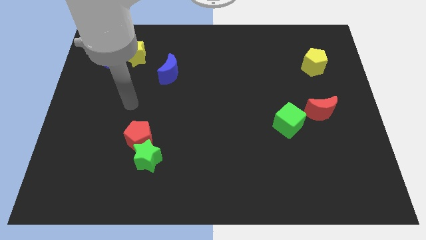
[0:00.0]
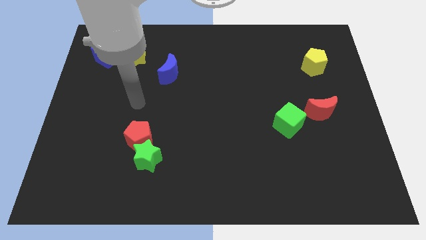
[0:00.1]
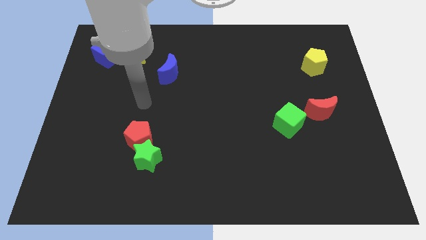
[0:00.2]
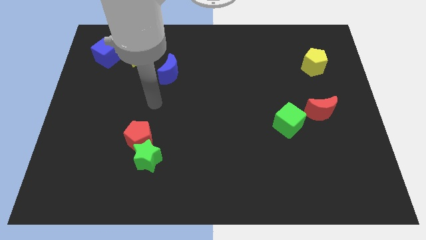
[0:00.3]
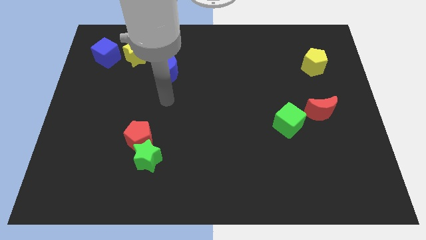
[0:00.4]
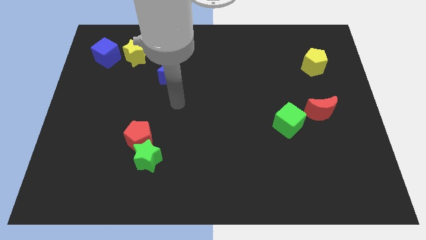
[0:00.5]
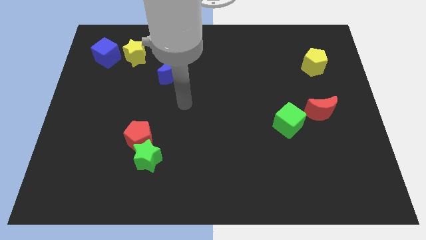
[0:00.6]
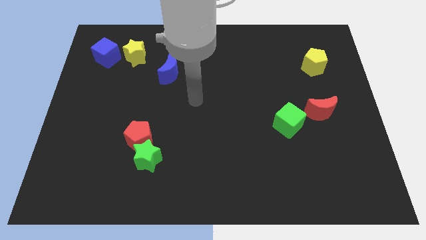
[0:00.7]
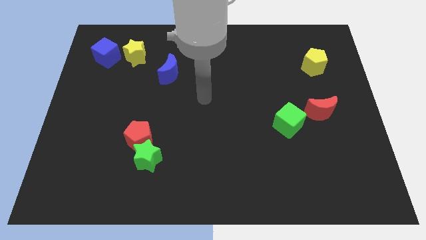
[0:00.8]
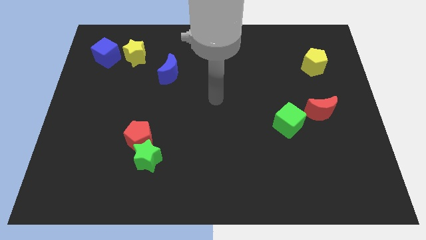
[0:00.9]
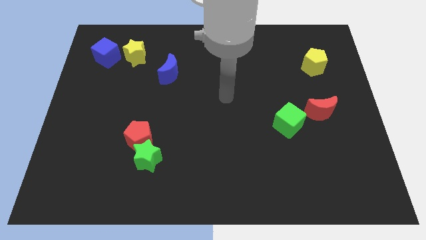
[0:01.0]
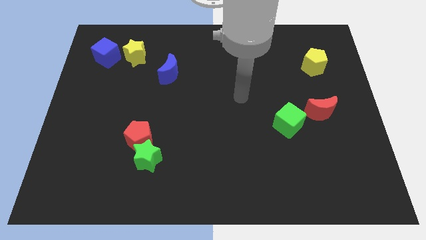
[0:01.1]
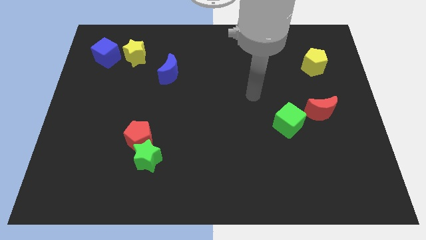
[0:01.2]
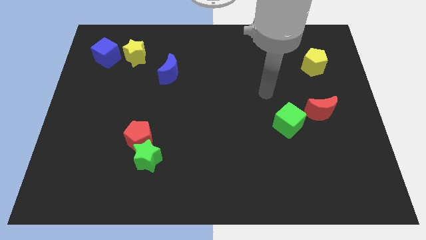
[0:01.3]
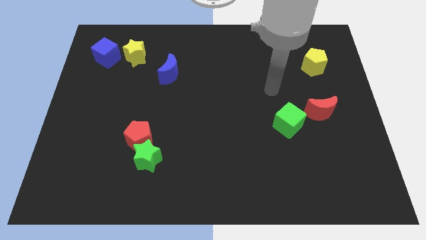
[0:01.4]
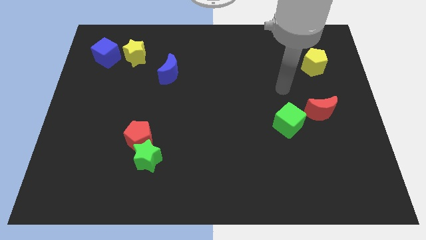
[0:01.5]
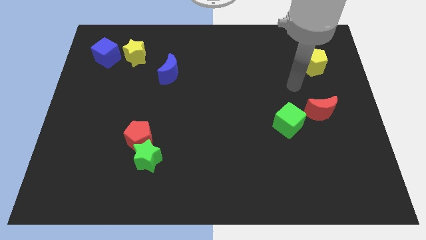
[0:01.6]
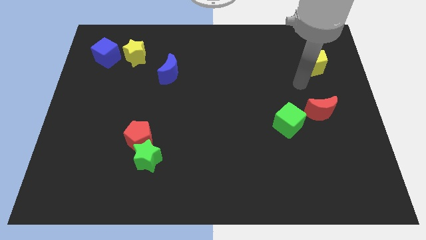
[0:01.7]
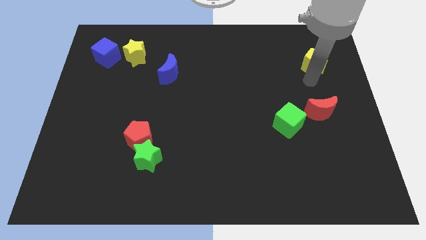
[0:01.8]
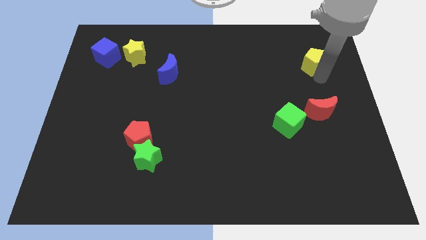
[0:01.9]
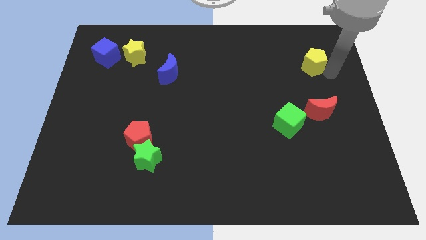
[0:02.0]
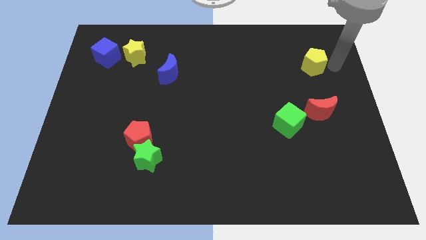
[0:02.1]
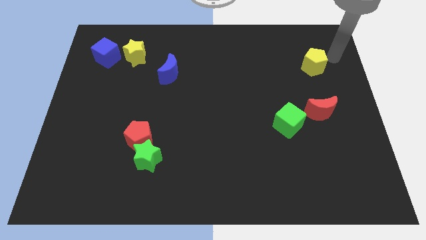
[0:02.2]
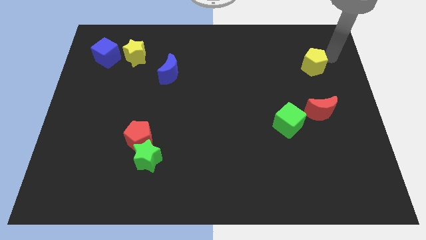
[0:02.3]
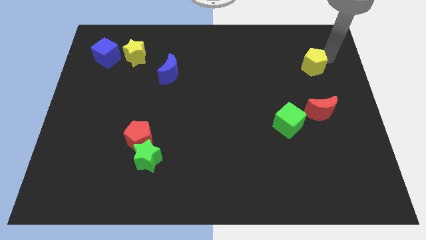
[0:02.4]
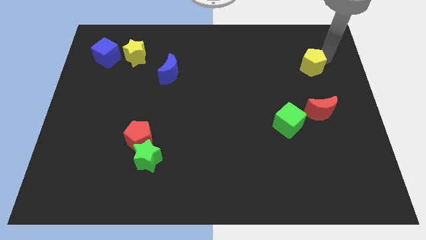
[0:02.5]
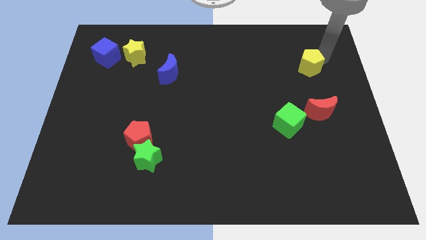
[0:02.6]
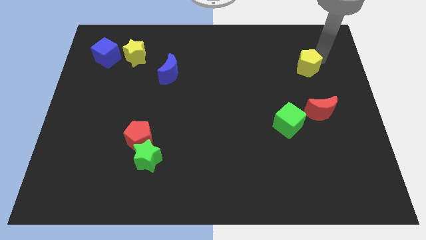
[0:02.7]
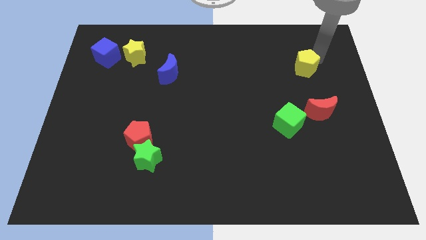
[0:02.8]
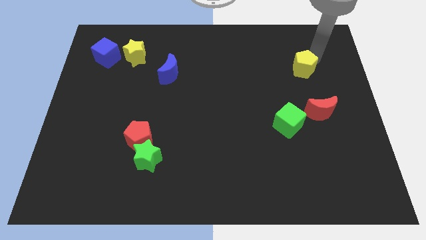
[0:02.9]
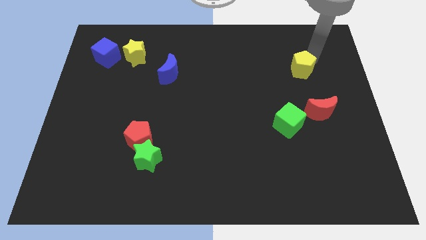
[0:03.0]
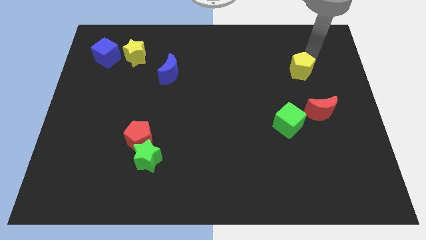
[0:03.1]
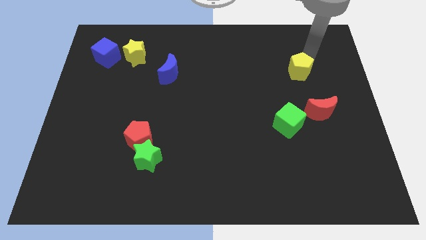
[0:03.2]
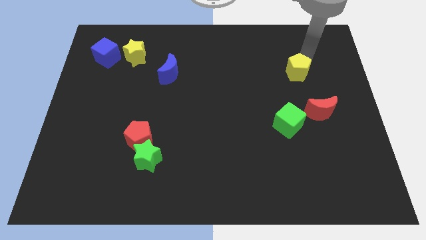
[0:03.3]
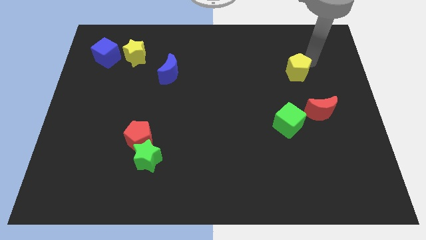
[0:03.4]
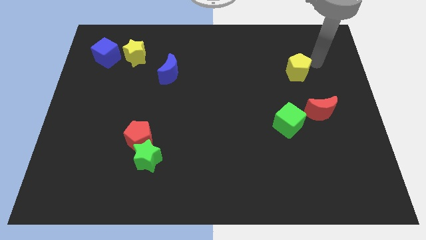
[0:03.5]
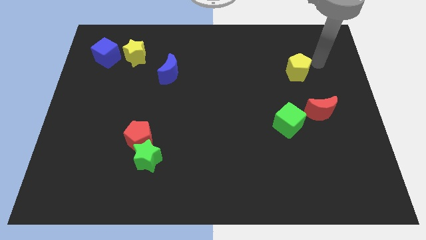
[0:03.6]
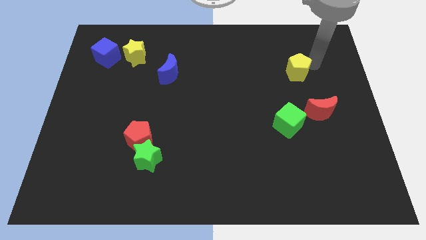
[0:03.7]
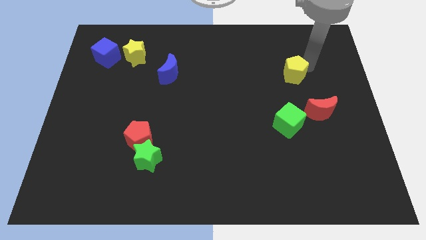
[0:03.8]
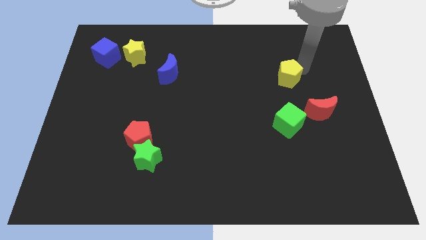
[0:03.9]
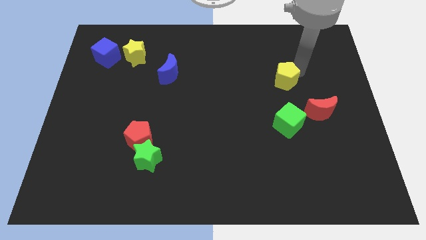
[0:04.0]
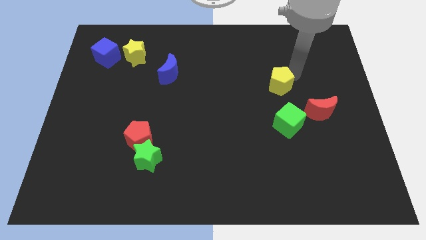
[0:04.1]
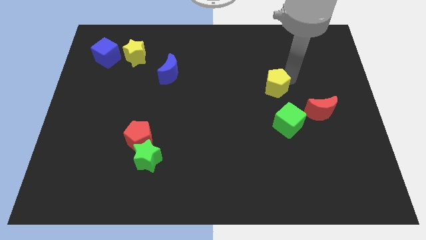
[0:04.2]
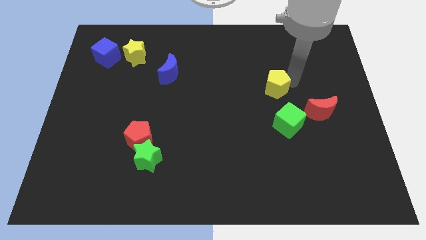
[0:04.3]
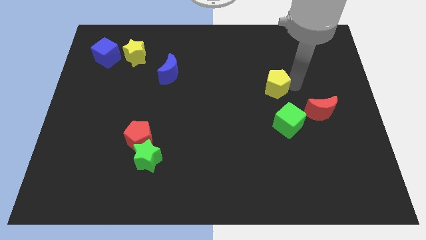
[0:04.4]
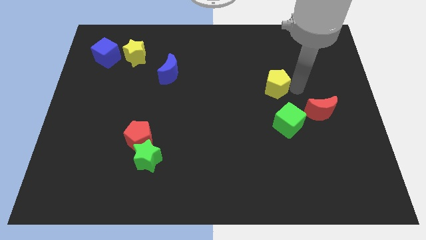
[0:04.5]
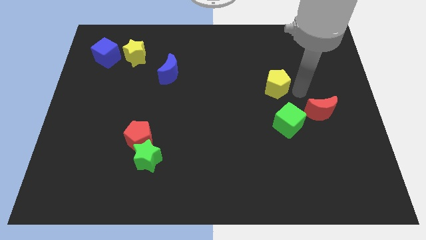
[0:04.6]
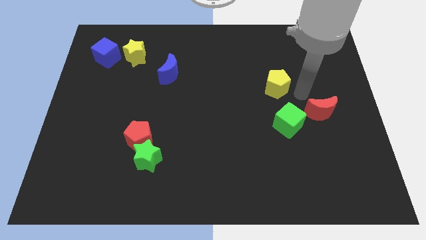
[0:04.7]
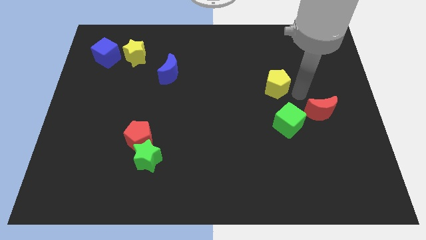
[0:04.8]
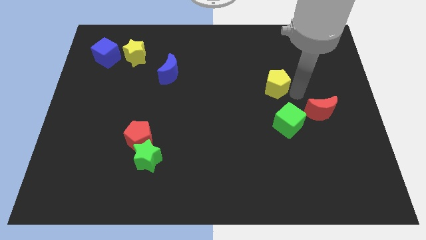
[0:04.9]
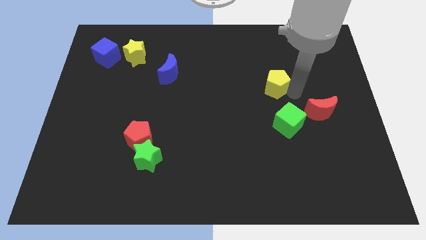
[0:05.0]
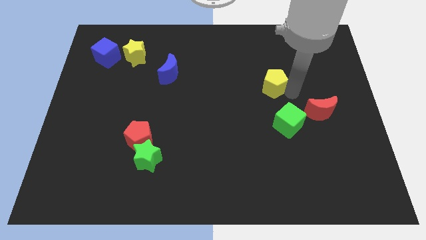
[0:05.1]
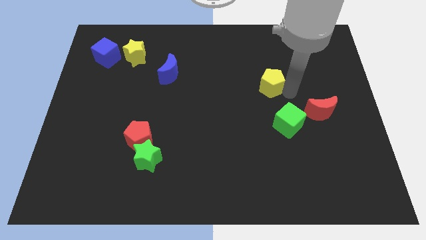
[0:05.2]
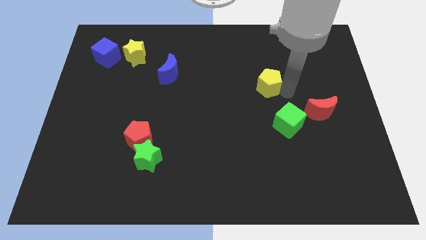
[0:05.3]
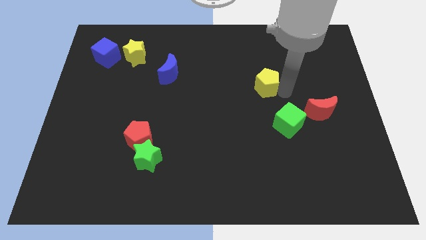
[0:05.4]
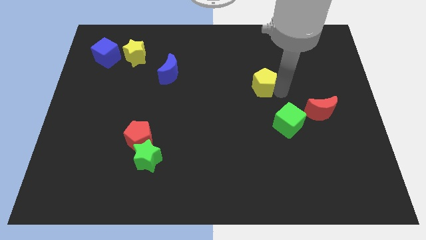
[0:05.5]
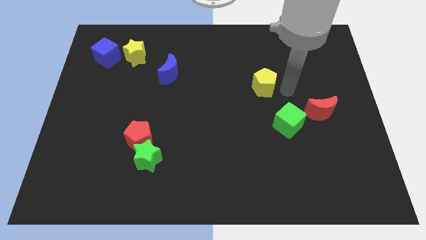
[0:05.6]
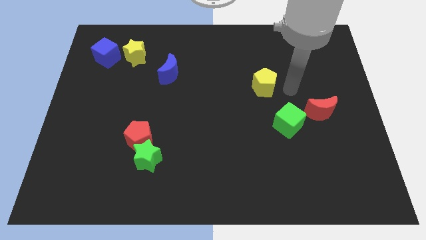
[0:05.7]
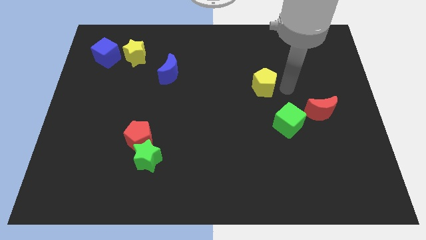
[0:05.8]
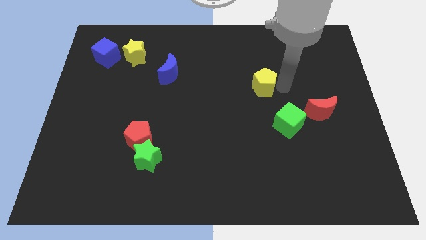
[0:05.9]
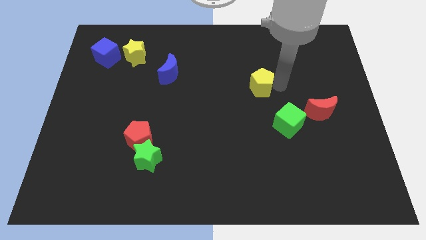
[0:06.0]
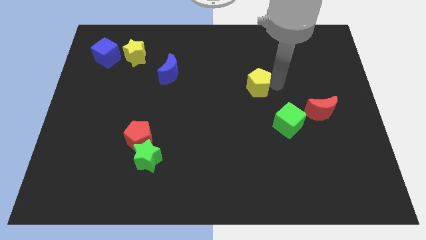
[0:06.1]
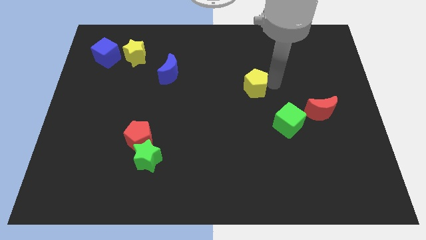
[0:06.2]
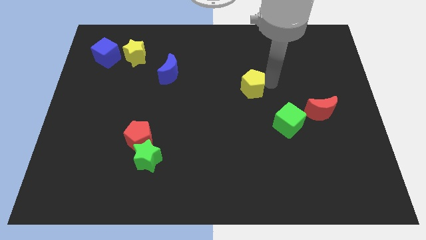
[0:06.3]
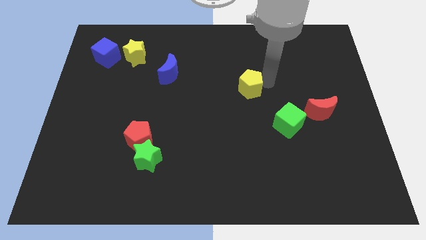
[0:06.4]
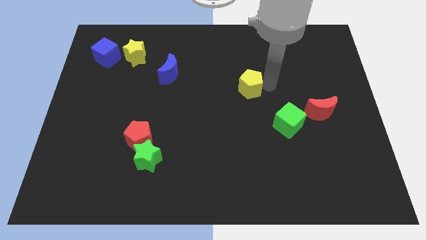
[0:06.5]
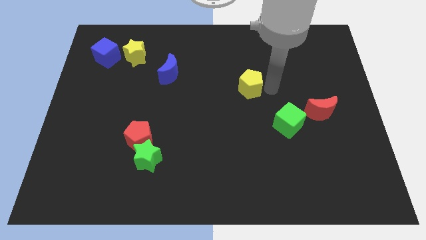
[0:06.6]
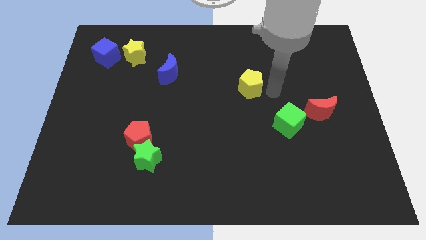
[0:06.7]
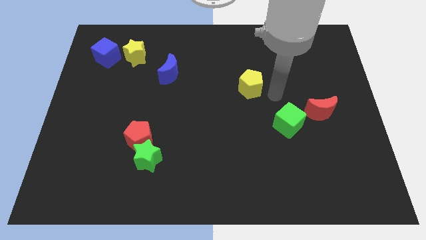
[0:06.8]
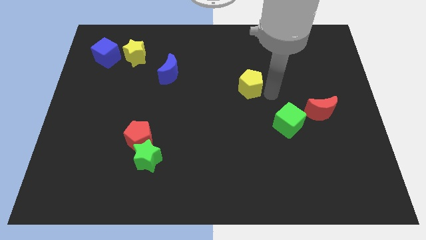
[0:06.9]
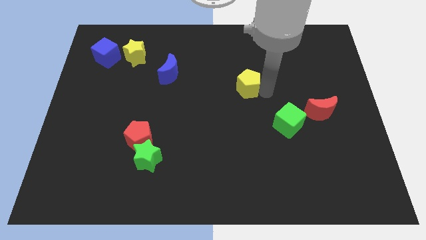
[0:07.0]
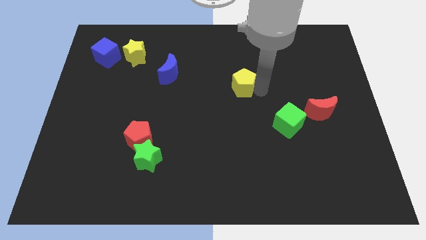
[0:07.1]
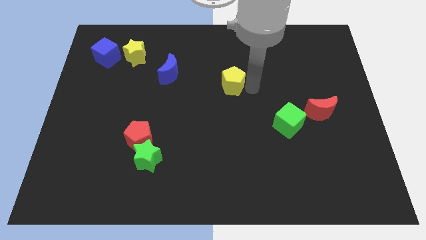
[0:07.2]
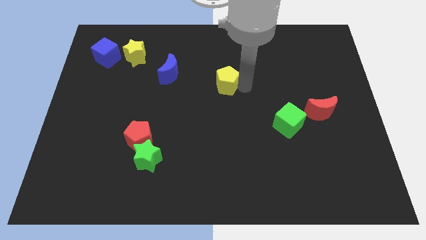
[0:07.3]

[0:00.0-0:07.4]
move the yellow pentagon right of the blue moon
